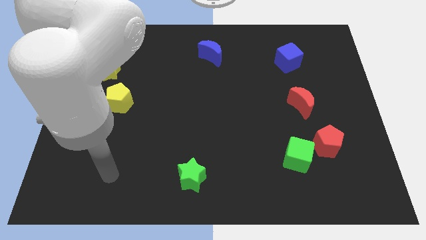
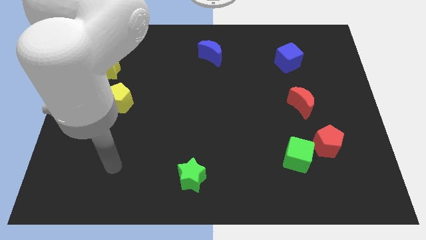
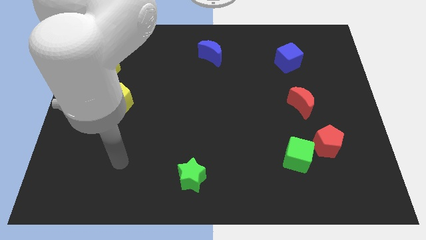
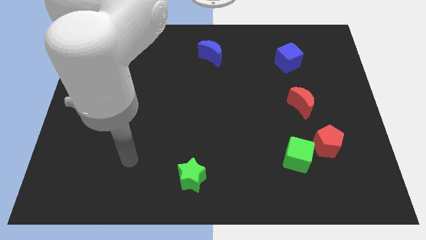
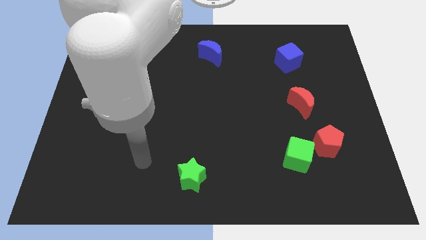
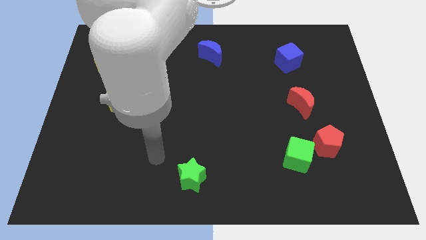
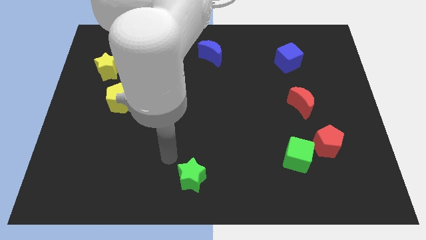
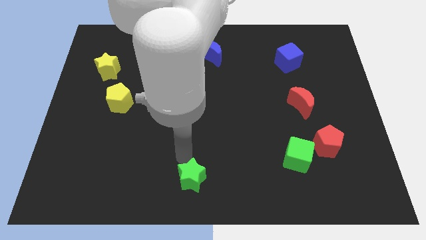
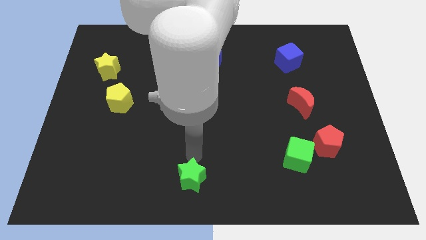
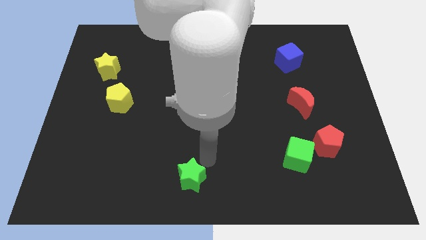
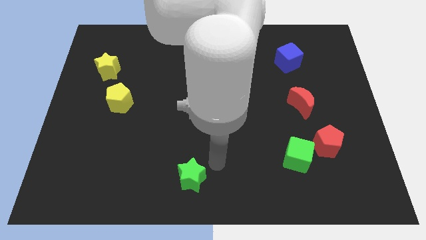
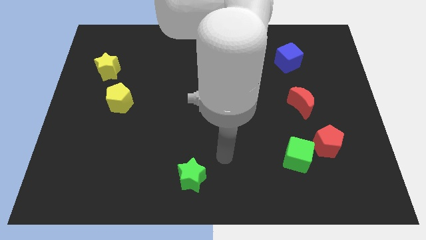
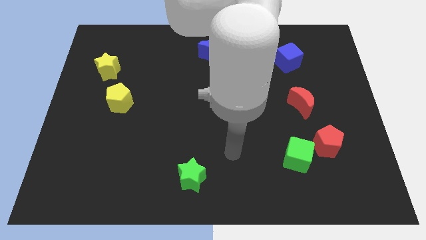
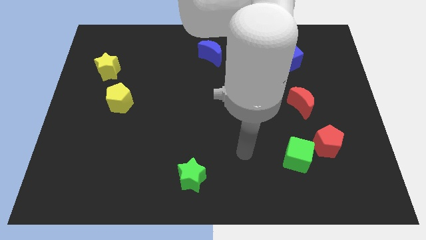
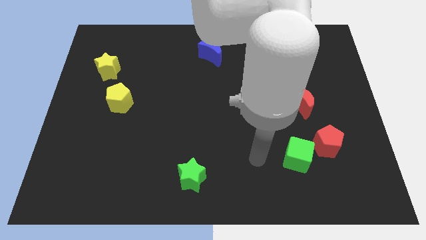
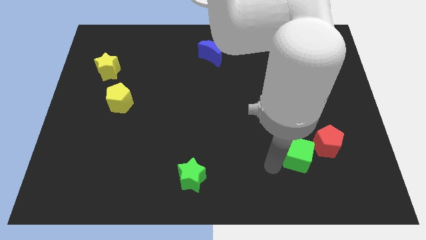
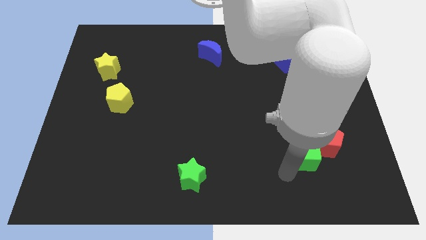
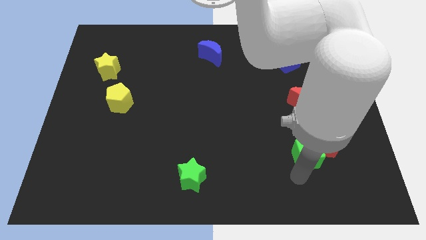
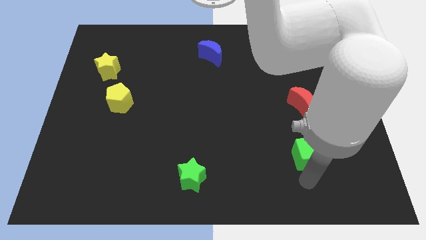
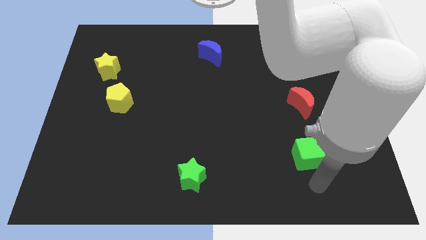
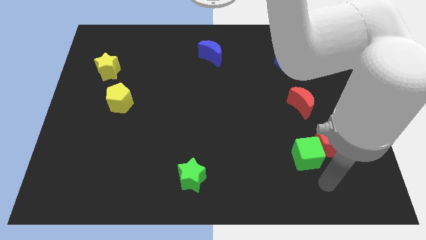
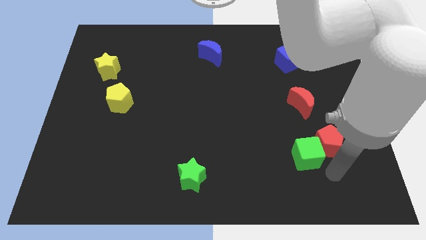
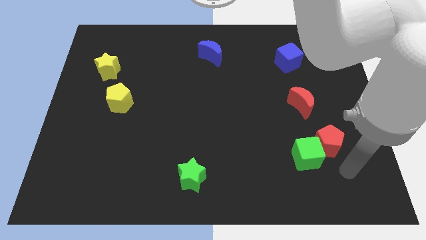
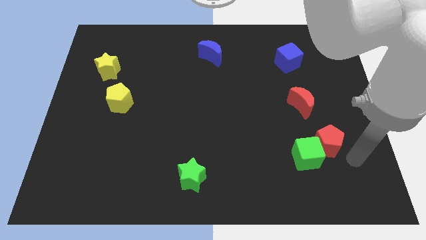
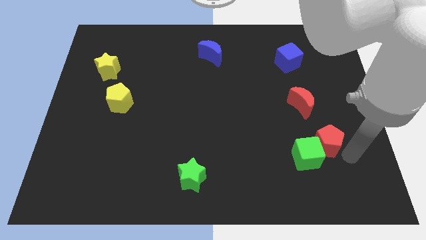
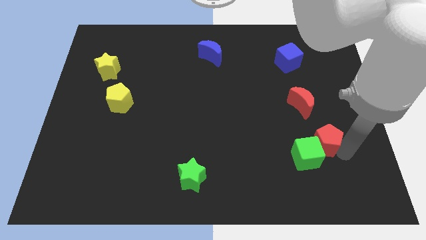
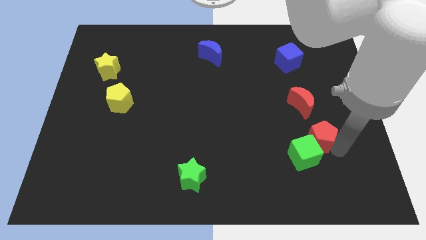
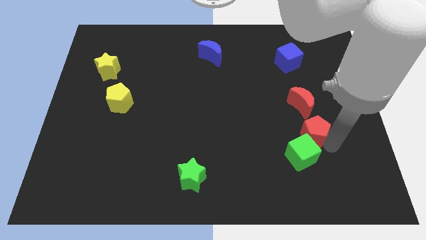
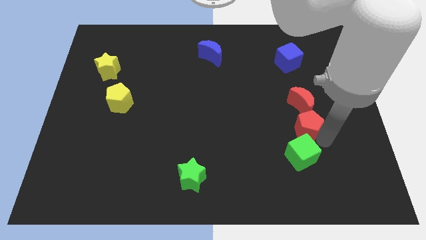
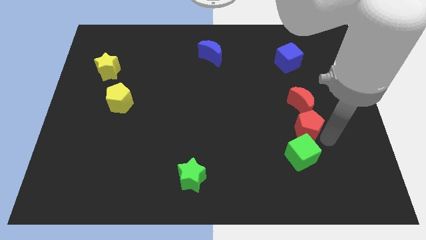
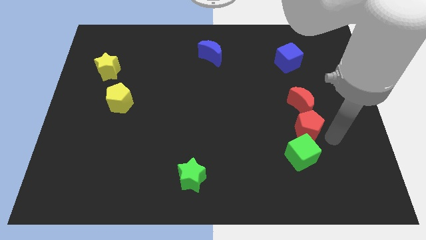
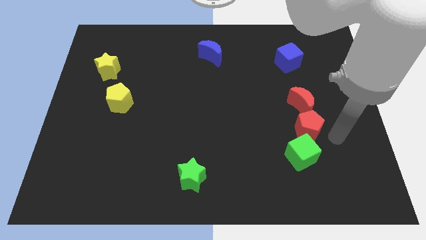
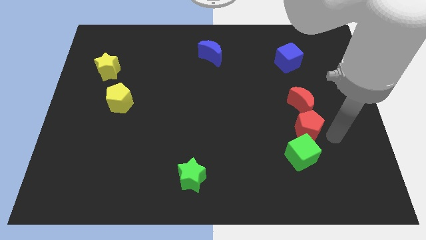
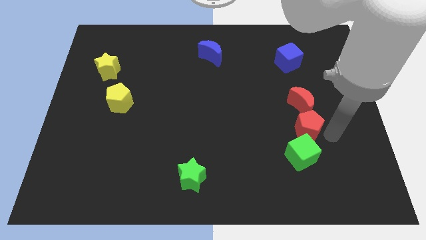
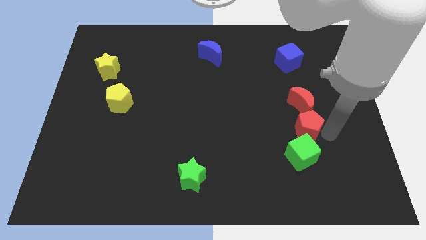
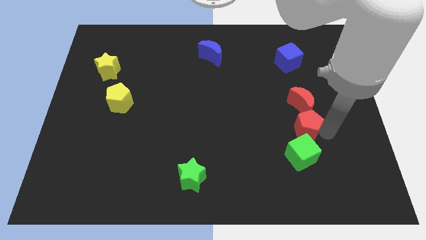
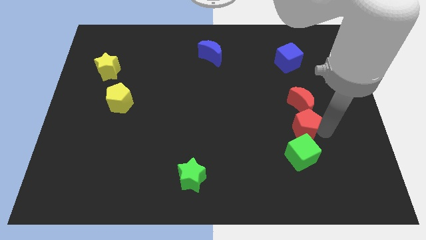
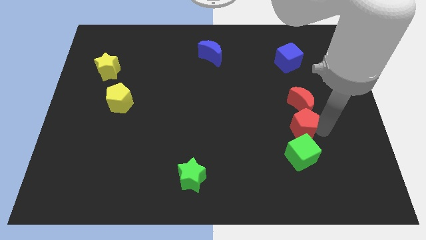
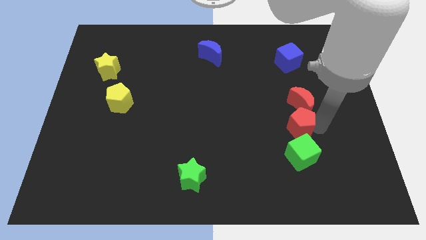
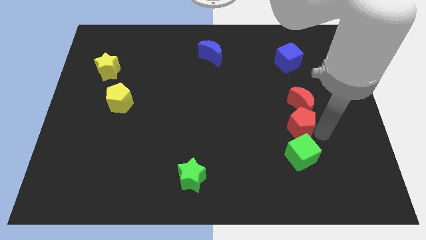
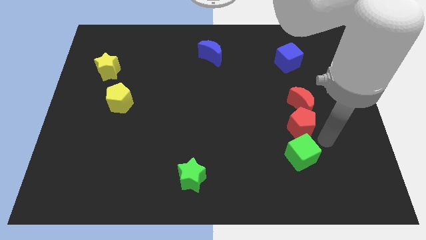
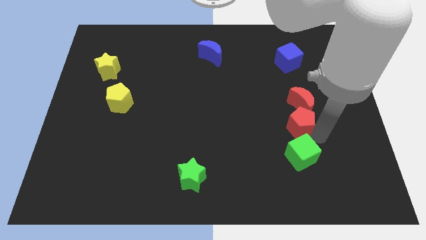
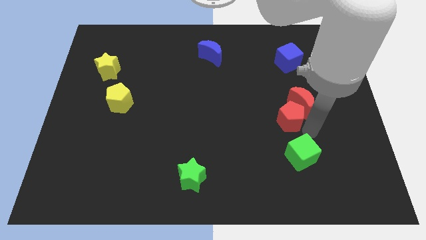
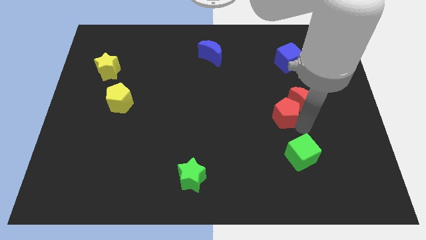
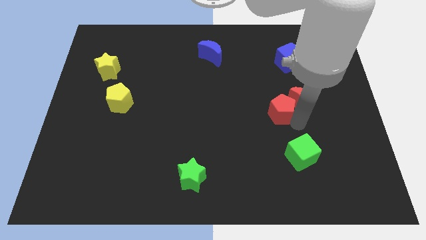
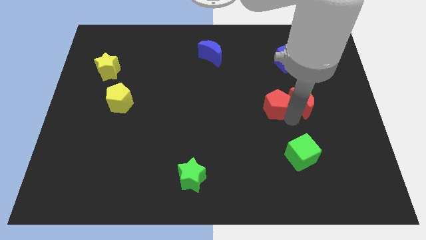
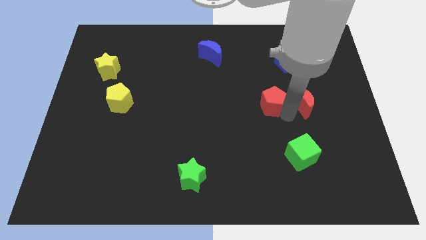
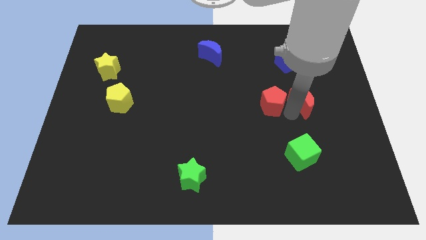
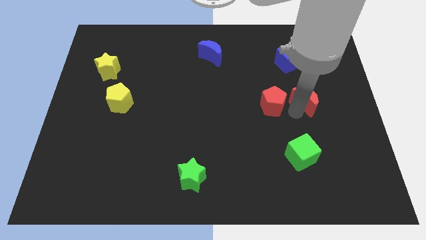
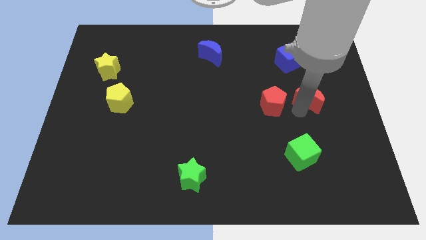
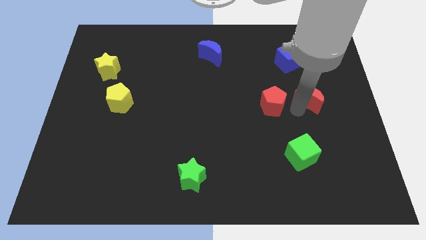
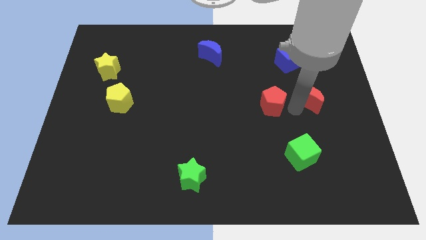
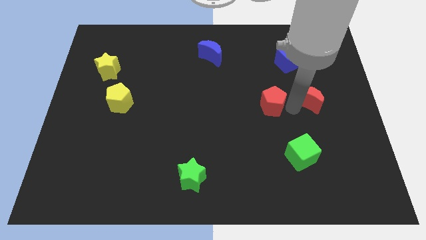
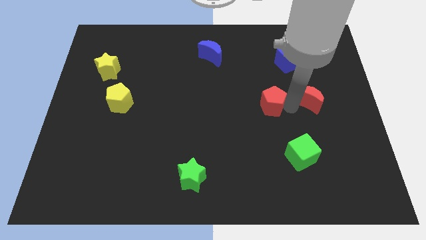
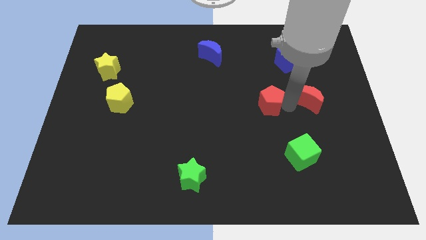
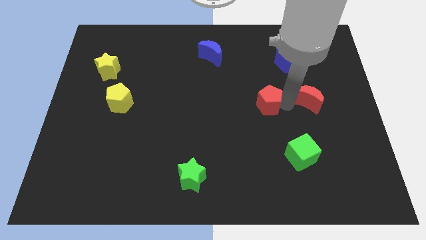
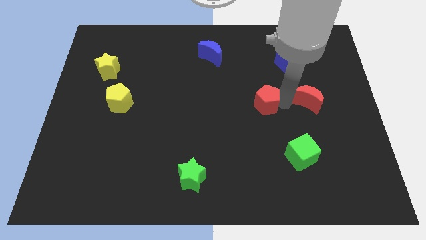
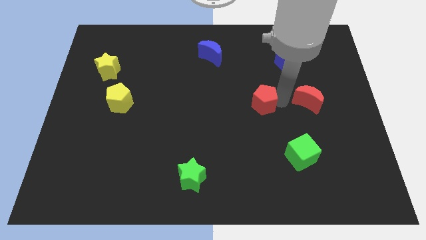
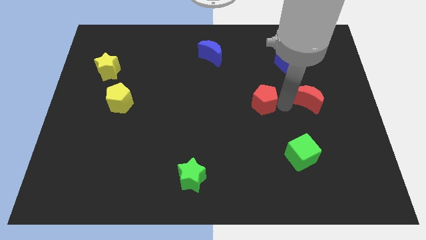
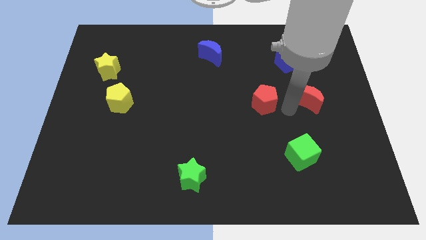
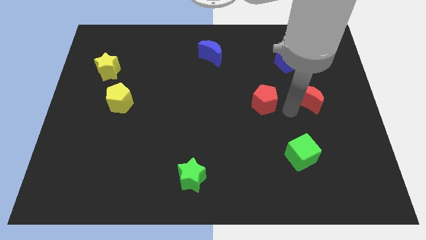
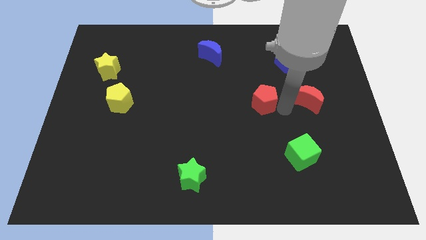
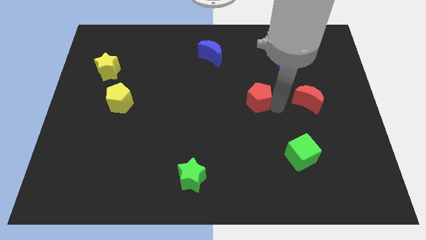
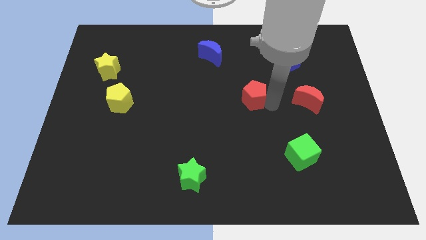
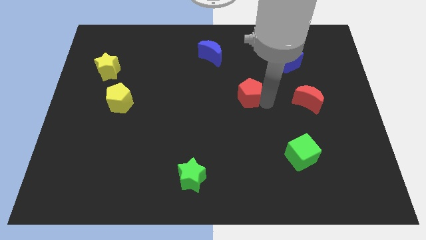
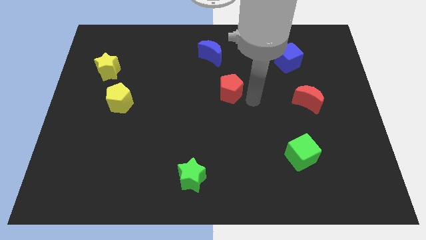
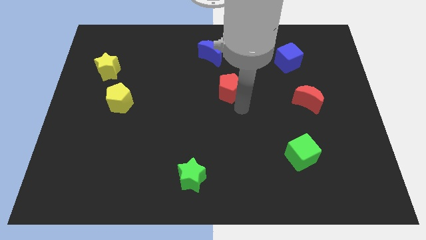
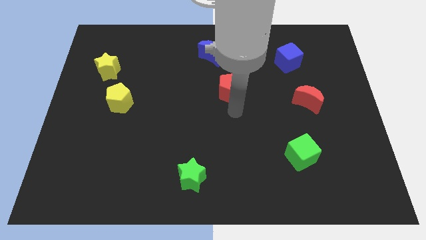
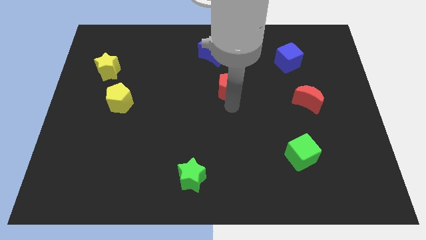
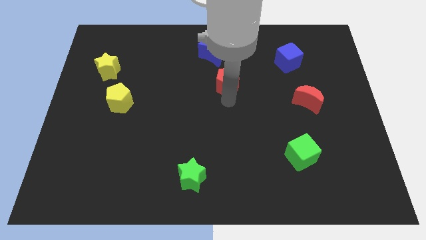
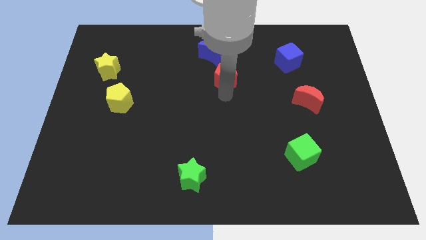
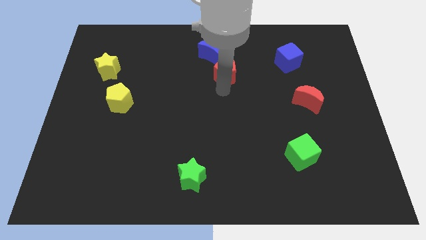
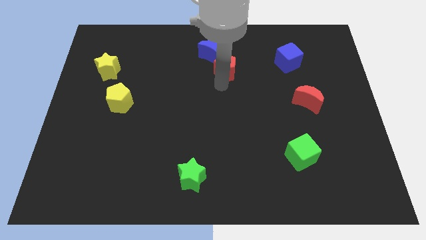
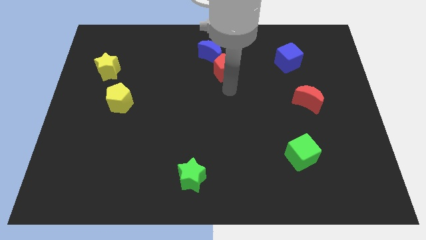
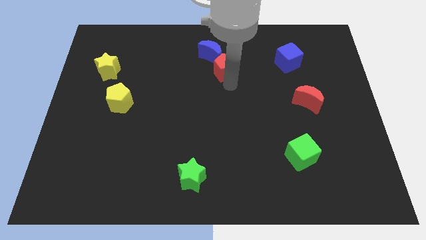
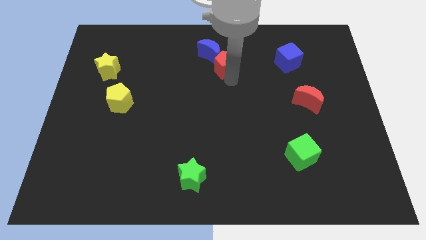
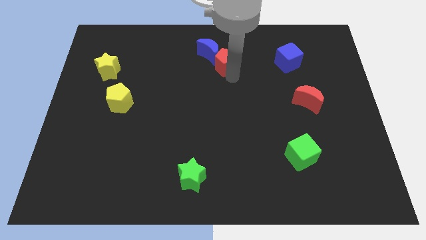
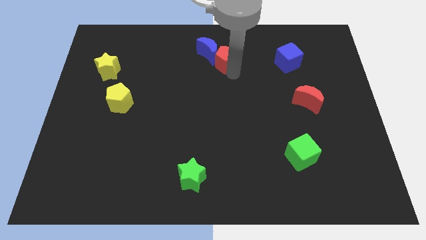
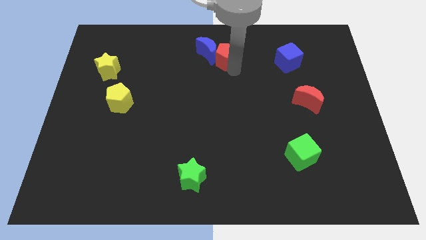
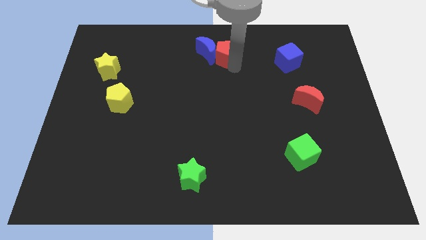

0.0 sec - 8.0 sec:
put the red pentagon to the top side
